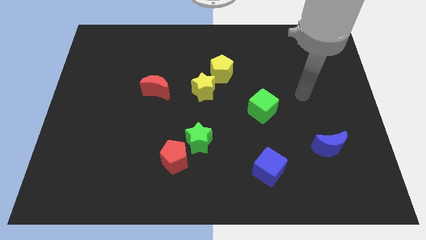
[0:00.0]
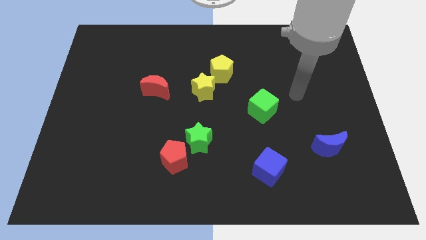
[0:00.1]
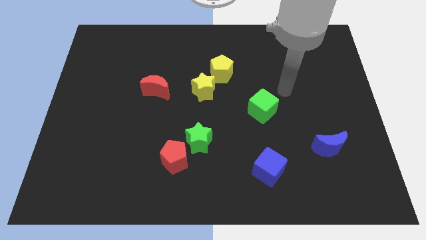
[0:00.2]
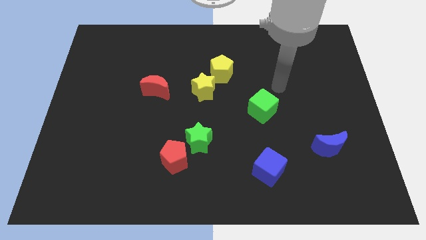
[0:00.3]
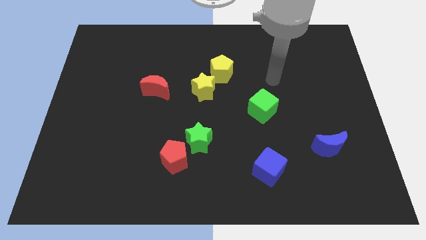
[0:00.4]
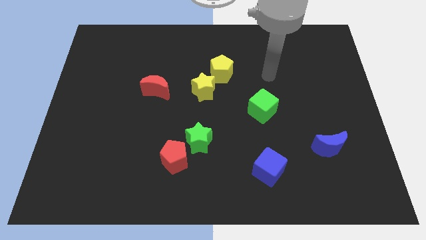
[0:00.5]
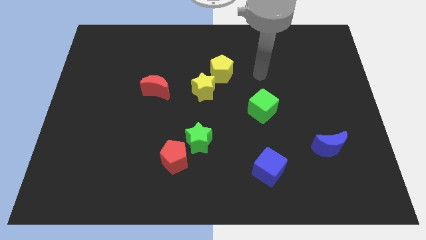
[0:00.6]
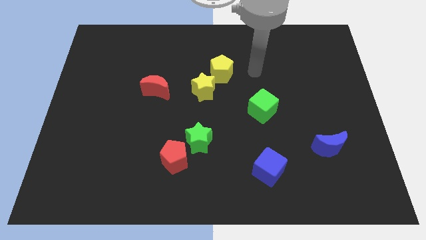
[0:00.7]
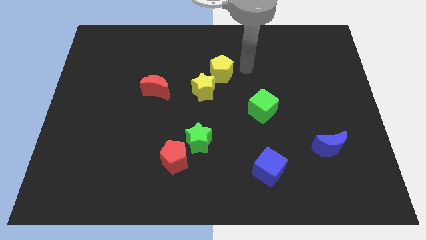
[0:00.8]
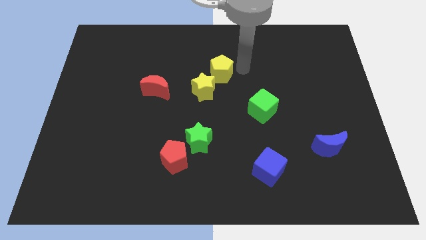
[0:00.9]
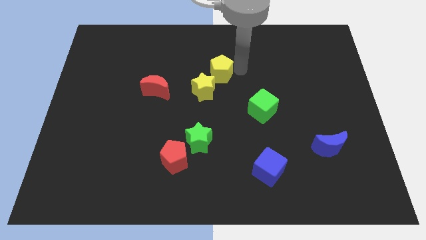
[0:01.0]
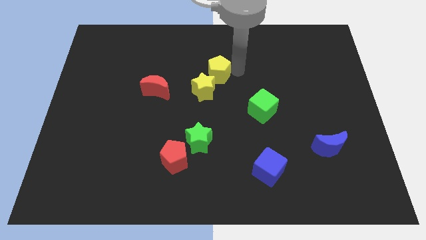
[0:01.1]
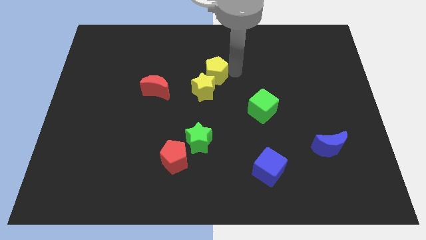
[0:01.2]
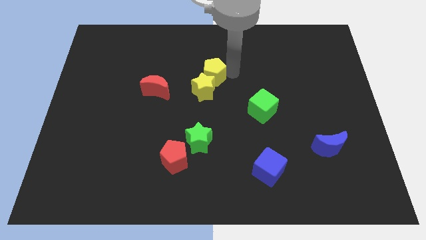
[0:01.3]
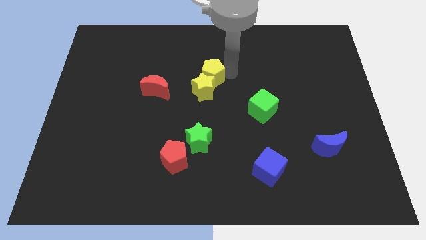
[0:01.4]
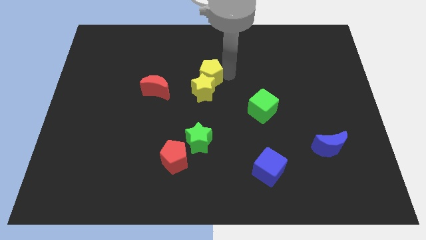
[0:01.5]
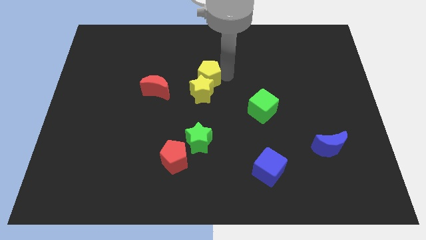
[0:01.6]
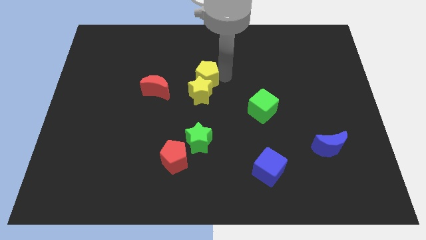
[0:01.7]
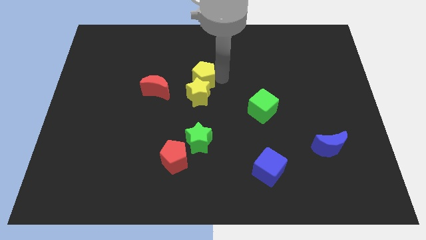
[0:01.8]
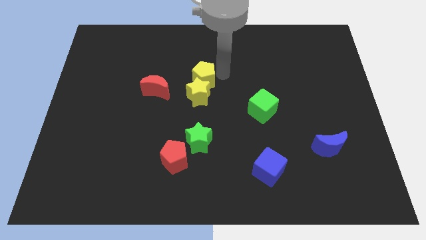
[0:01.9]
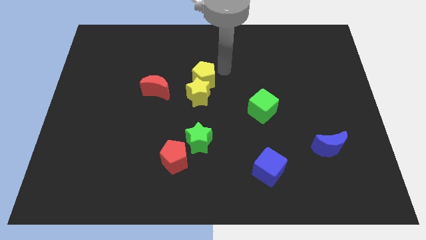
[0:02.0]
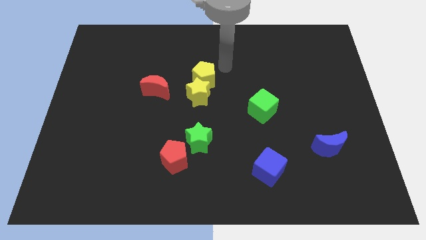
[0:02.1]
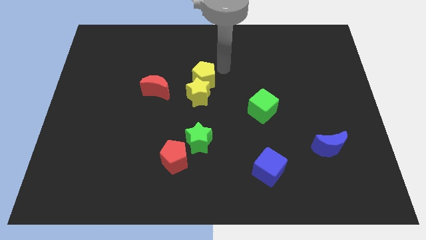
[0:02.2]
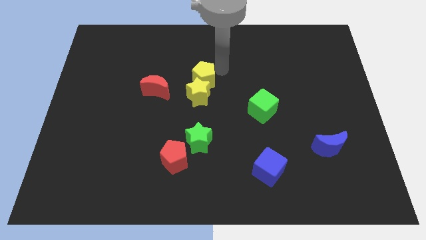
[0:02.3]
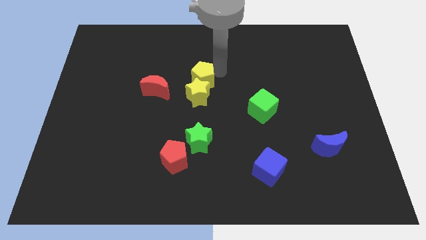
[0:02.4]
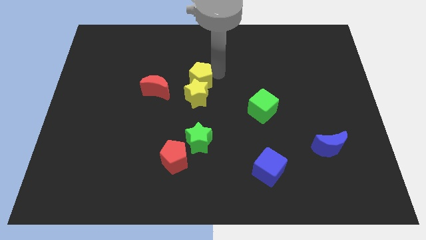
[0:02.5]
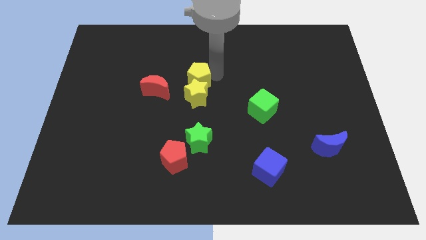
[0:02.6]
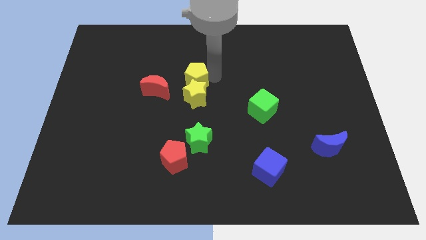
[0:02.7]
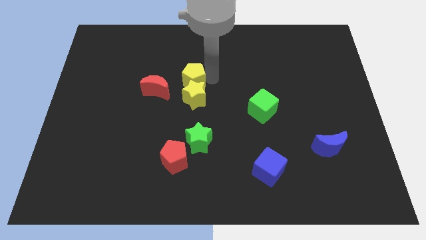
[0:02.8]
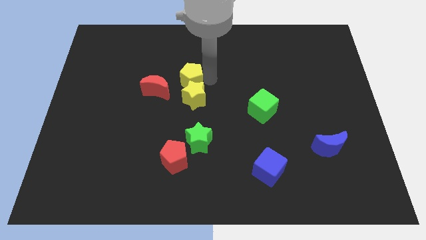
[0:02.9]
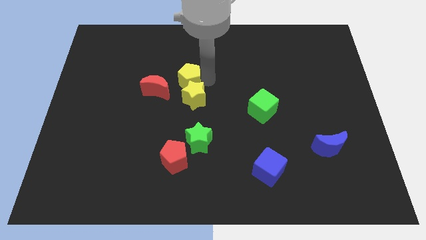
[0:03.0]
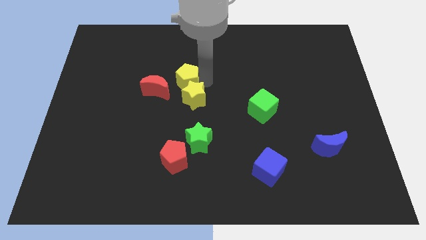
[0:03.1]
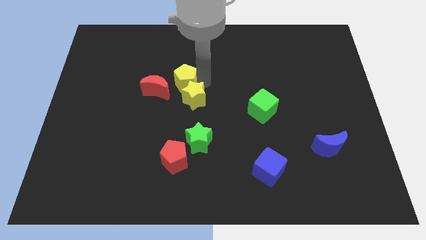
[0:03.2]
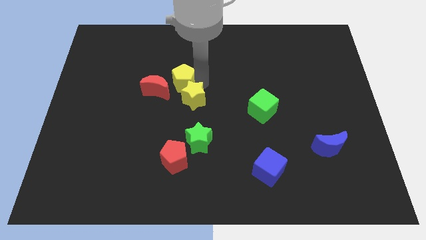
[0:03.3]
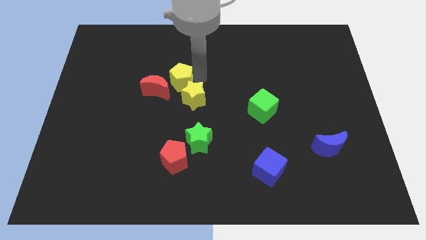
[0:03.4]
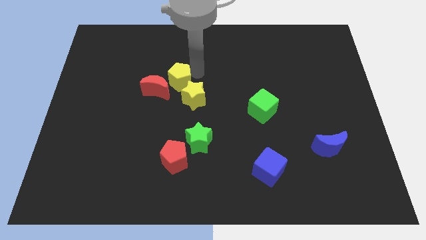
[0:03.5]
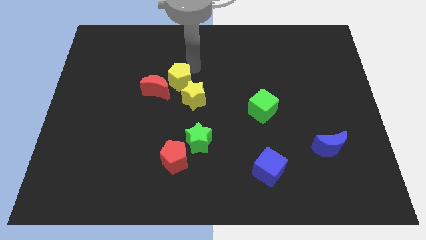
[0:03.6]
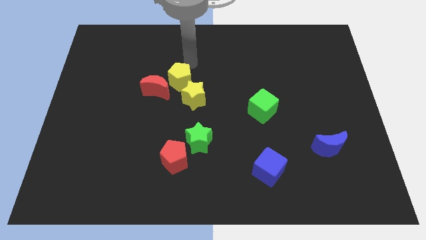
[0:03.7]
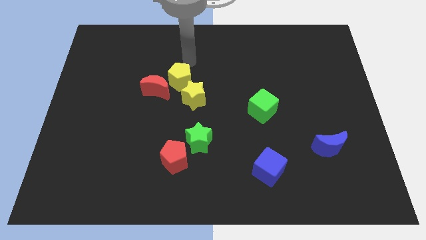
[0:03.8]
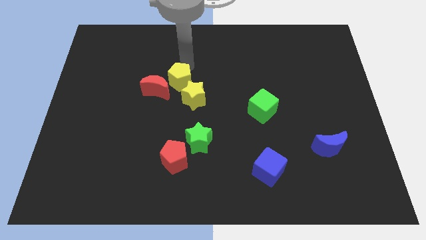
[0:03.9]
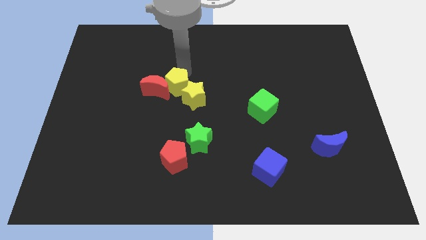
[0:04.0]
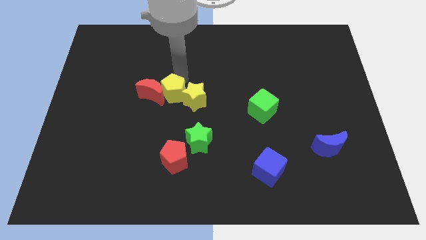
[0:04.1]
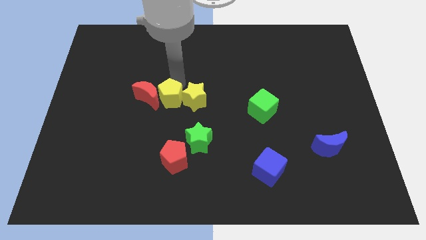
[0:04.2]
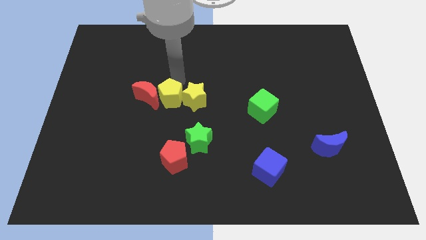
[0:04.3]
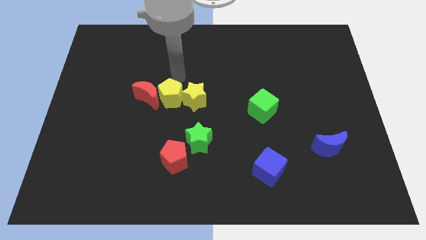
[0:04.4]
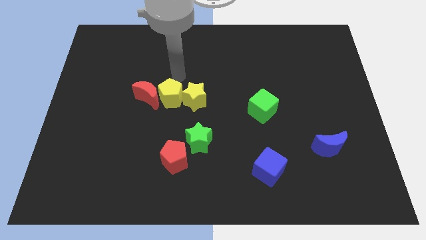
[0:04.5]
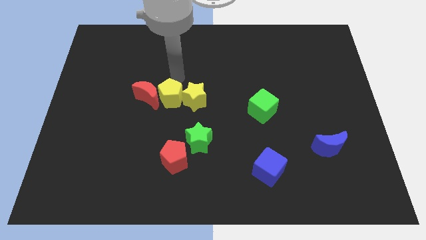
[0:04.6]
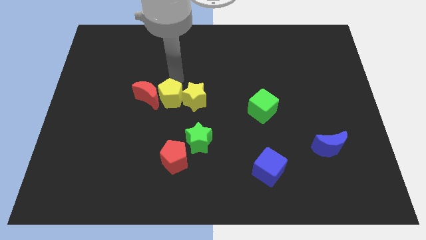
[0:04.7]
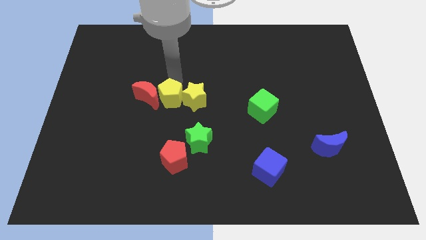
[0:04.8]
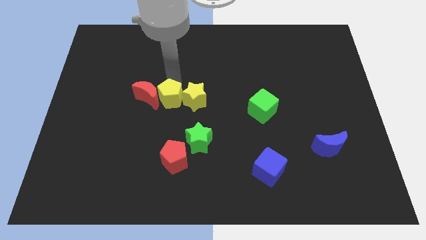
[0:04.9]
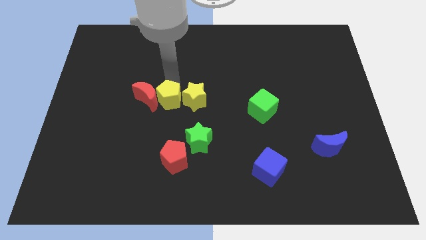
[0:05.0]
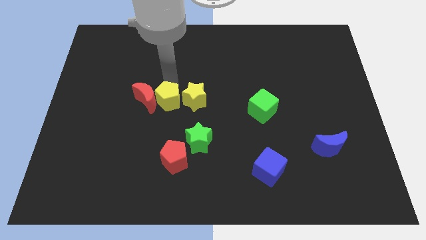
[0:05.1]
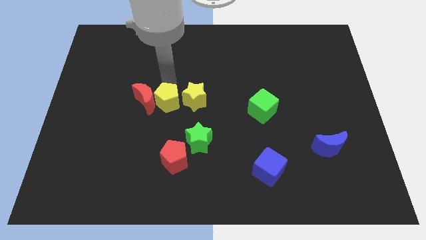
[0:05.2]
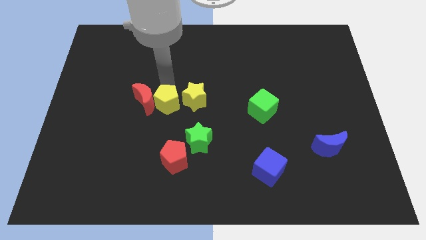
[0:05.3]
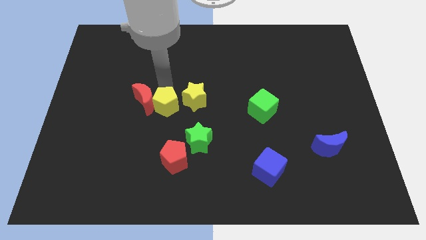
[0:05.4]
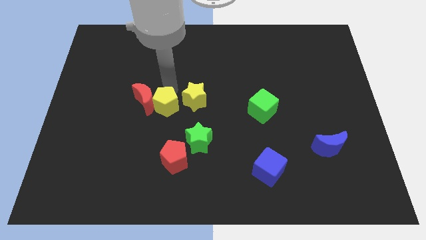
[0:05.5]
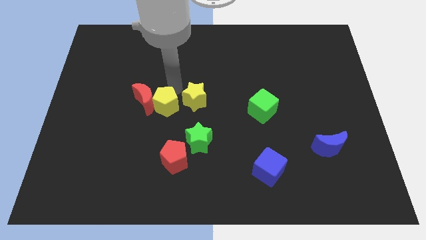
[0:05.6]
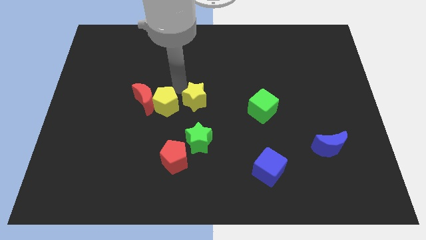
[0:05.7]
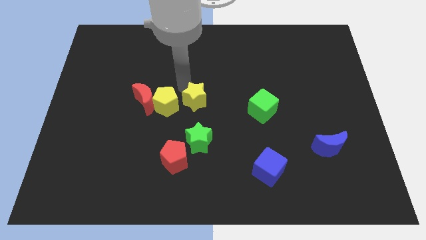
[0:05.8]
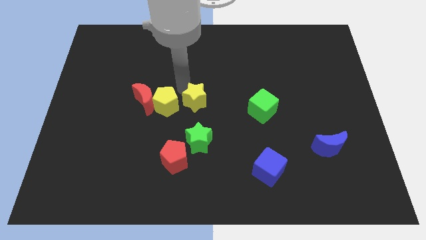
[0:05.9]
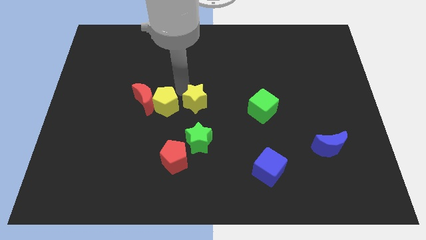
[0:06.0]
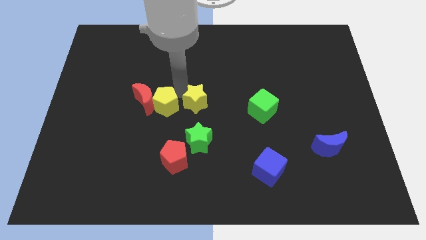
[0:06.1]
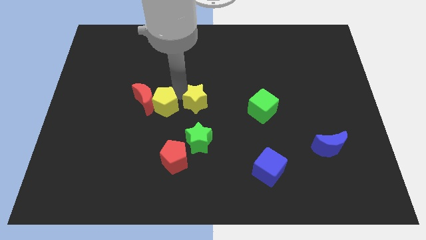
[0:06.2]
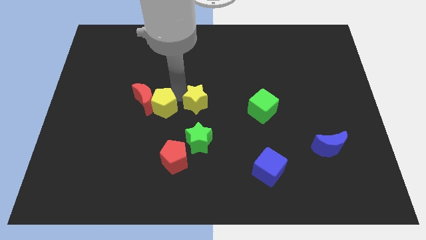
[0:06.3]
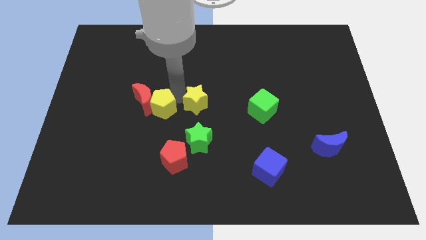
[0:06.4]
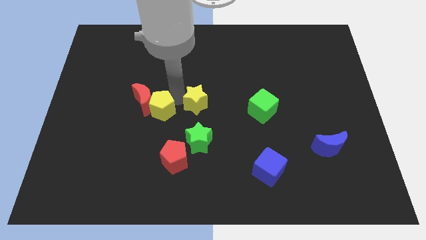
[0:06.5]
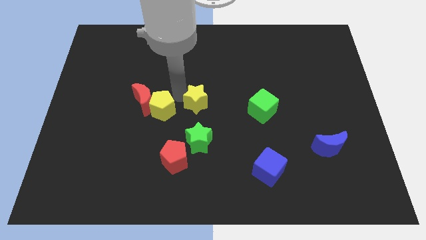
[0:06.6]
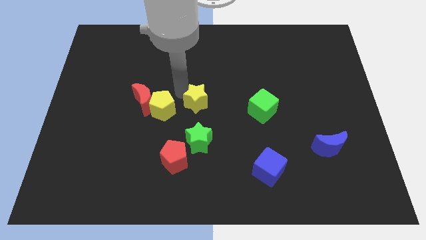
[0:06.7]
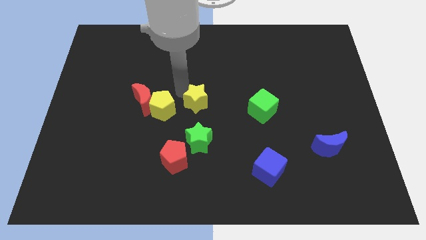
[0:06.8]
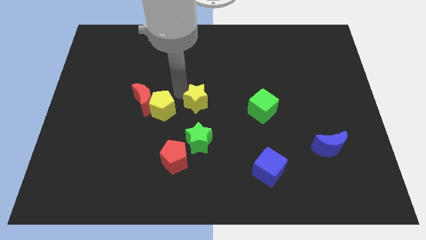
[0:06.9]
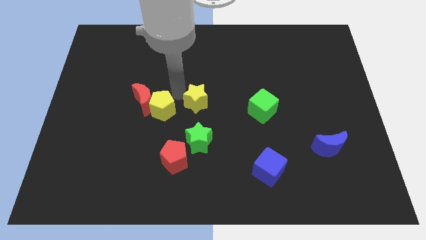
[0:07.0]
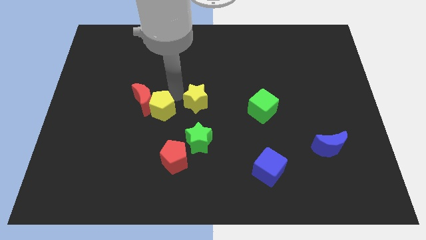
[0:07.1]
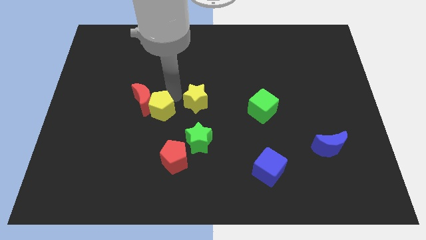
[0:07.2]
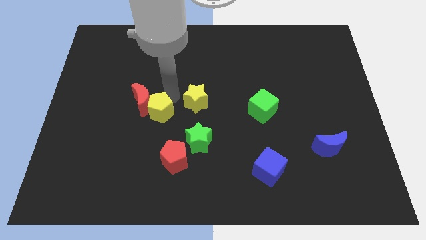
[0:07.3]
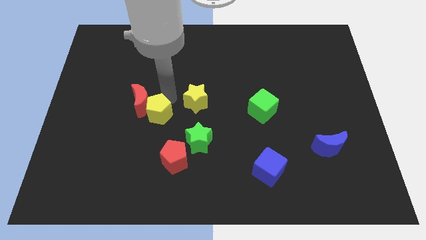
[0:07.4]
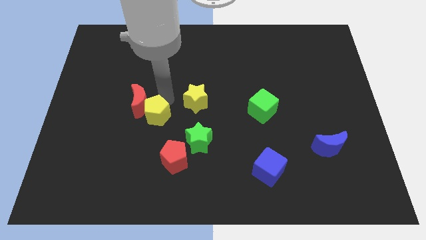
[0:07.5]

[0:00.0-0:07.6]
move the yellow pentagon down and to the left diagonally

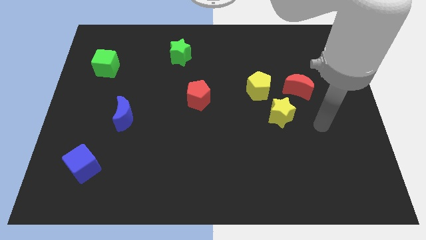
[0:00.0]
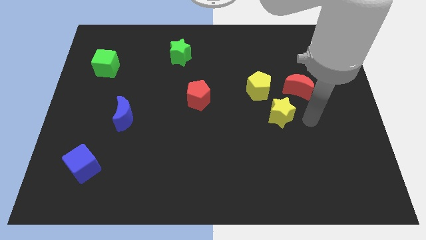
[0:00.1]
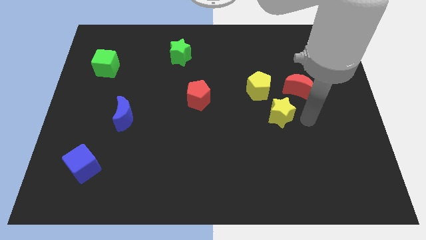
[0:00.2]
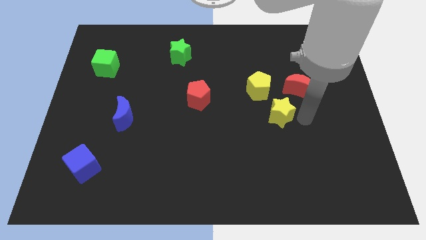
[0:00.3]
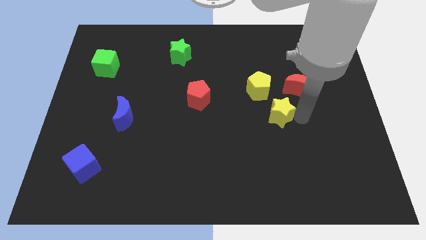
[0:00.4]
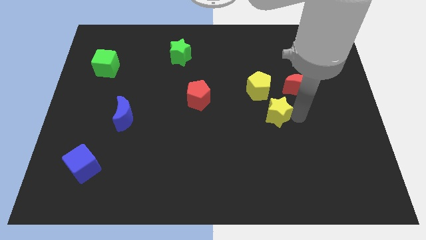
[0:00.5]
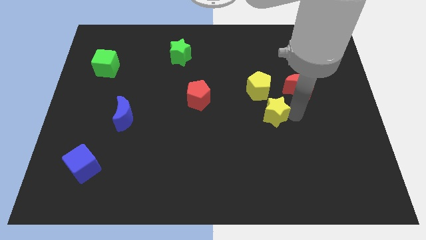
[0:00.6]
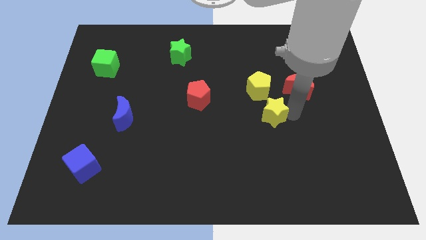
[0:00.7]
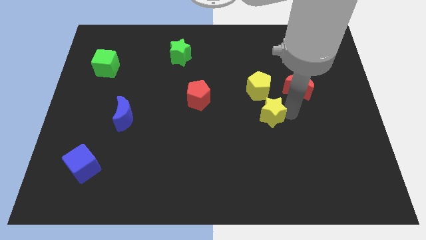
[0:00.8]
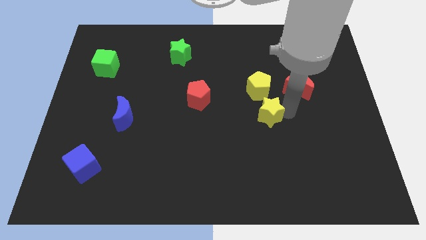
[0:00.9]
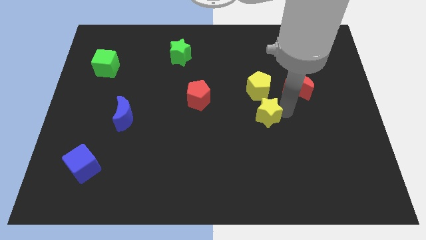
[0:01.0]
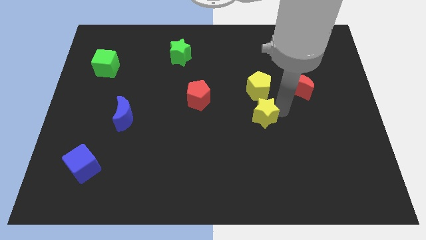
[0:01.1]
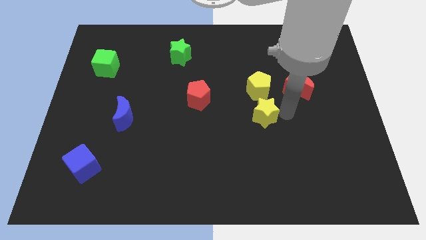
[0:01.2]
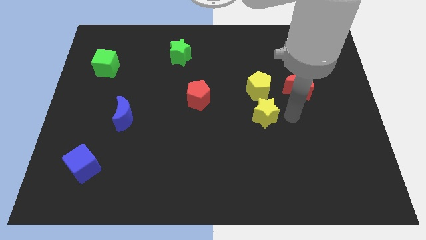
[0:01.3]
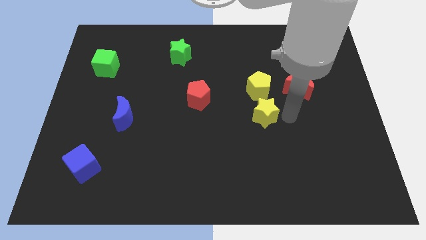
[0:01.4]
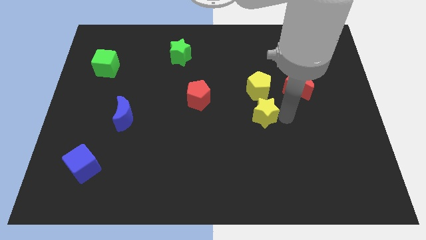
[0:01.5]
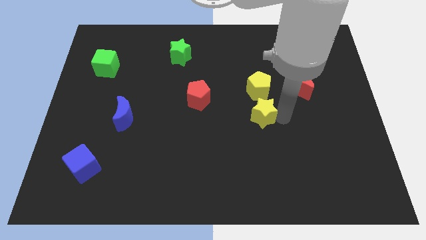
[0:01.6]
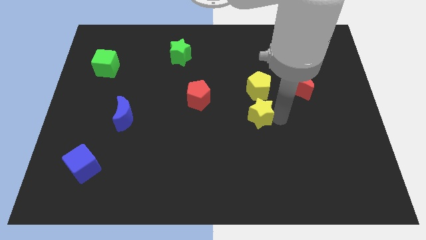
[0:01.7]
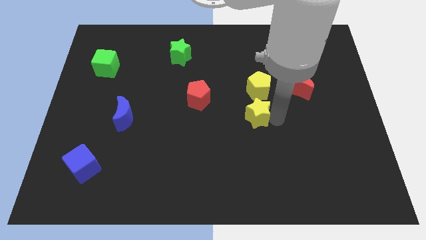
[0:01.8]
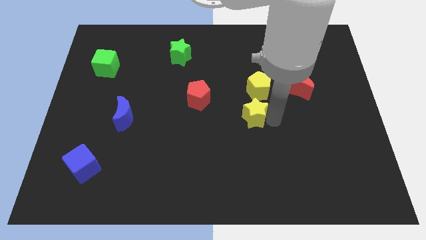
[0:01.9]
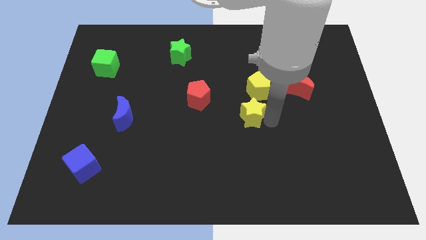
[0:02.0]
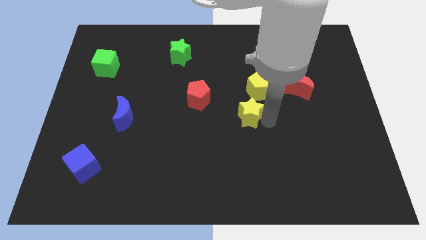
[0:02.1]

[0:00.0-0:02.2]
push the yellow star left a little bit
